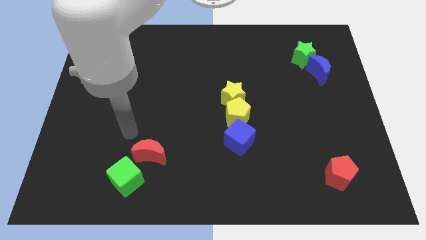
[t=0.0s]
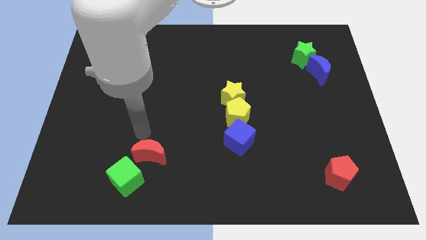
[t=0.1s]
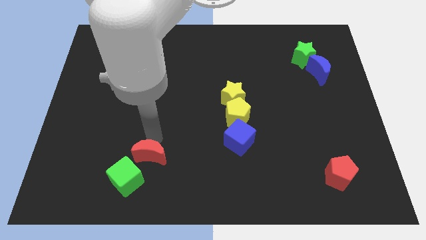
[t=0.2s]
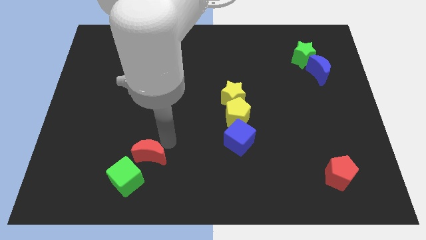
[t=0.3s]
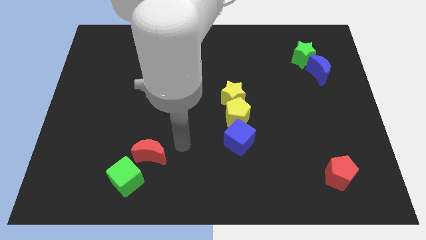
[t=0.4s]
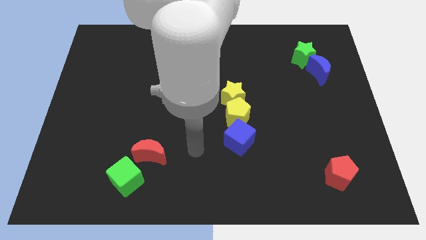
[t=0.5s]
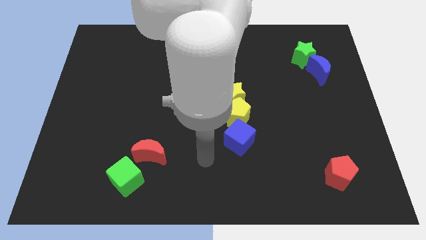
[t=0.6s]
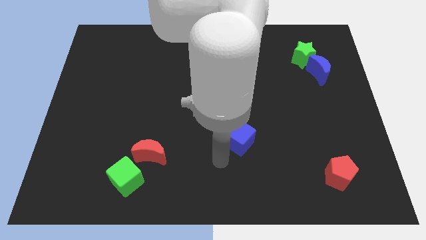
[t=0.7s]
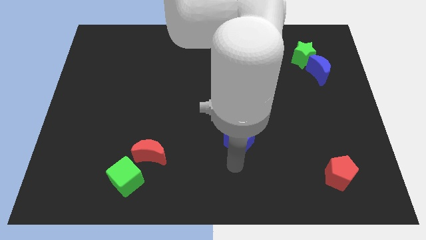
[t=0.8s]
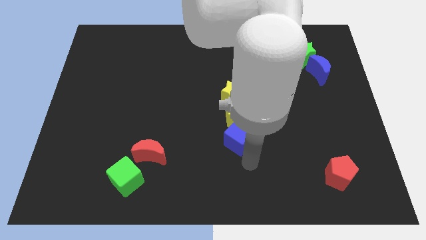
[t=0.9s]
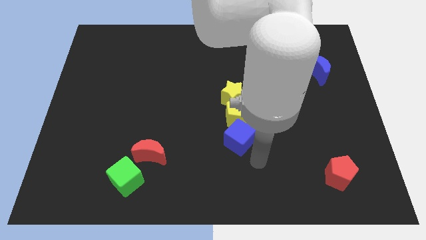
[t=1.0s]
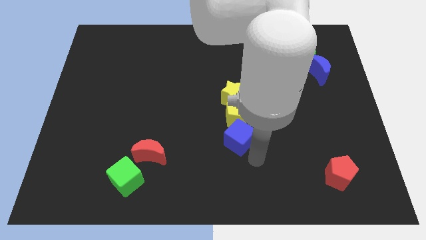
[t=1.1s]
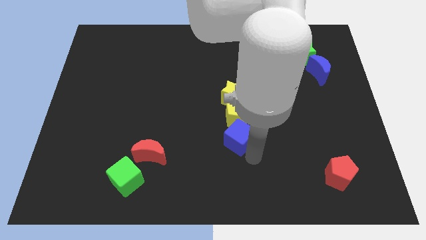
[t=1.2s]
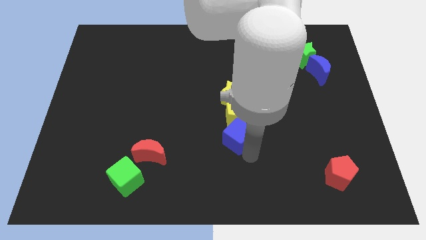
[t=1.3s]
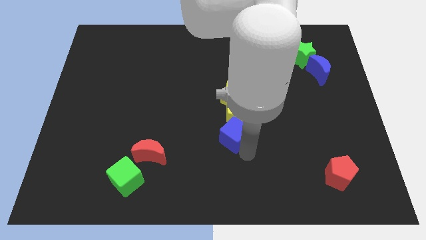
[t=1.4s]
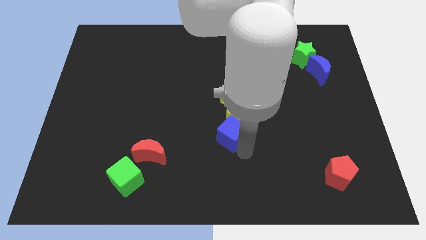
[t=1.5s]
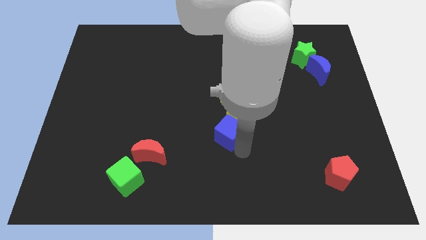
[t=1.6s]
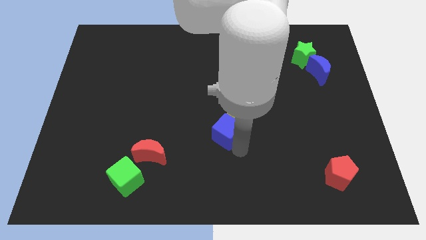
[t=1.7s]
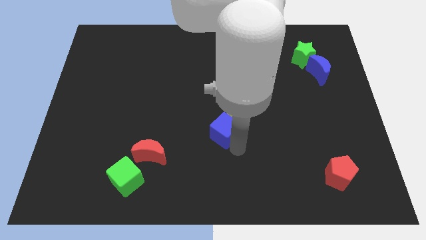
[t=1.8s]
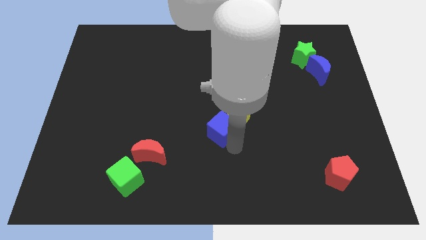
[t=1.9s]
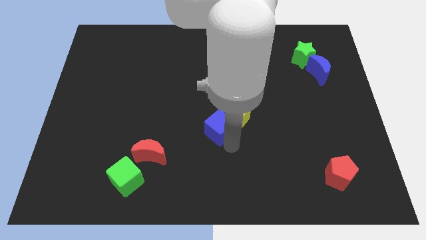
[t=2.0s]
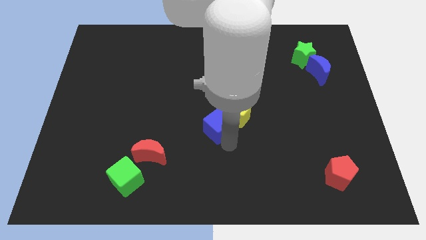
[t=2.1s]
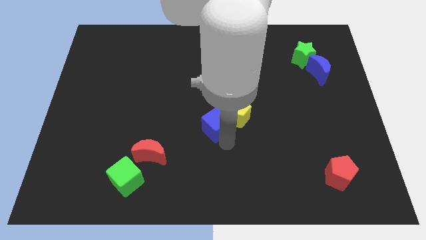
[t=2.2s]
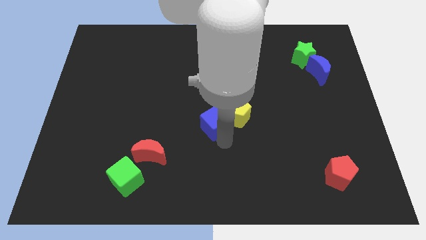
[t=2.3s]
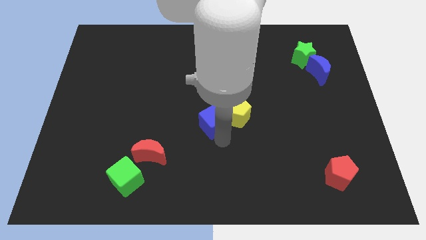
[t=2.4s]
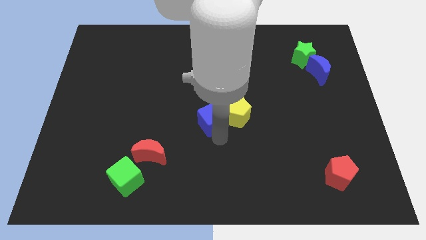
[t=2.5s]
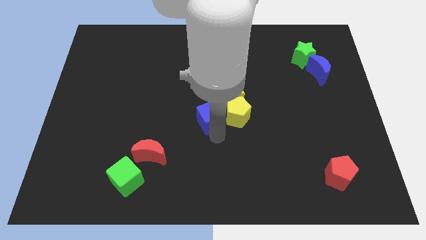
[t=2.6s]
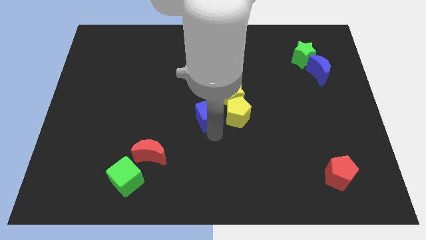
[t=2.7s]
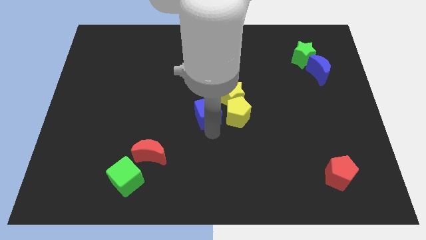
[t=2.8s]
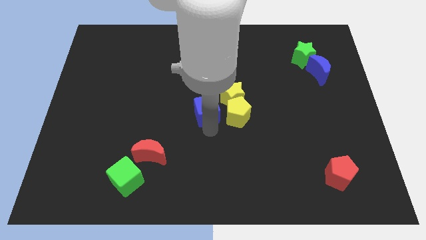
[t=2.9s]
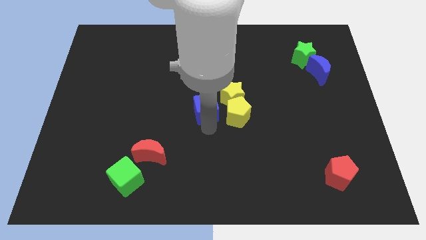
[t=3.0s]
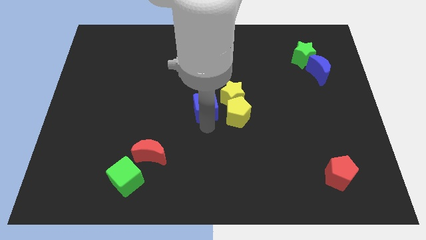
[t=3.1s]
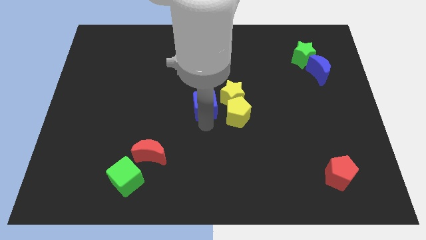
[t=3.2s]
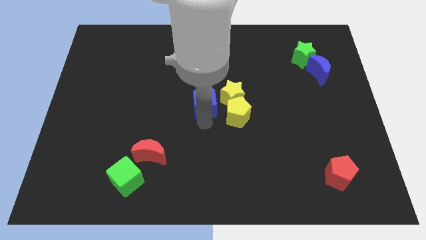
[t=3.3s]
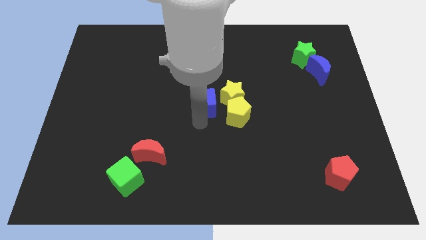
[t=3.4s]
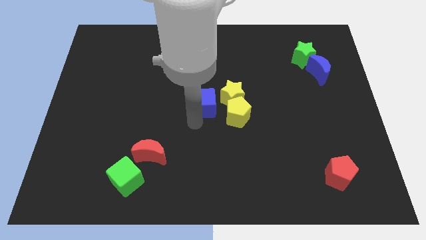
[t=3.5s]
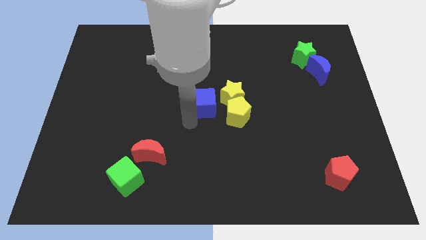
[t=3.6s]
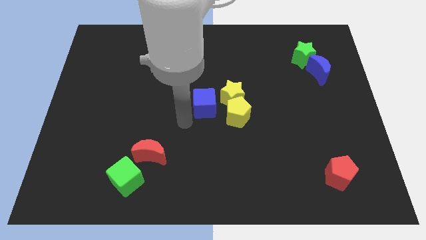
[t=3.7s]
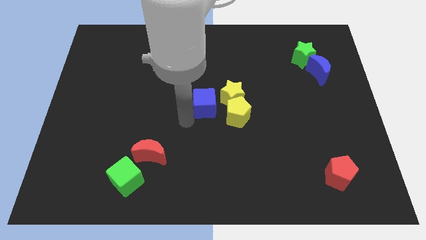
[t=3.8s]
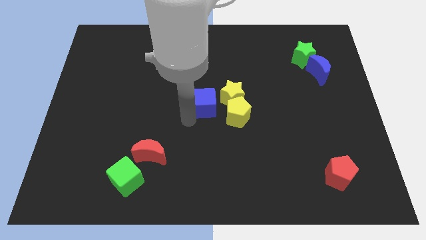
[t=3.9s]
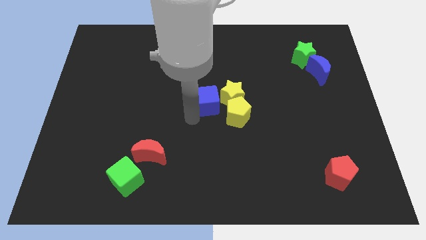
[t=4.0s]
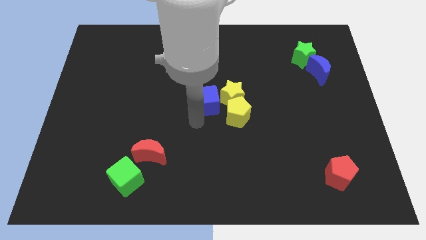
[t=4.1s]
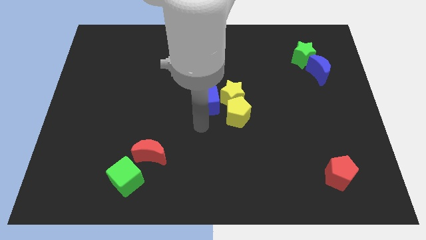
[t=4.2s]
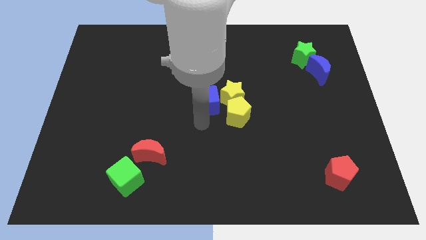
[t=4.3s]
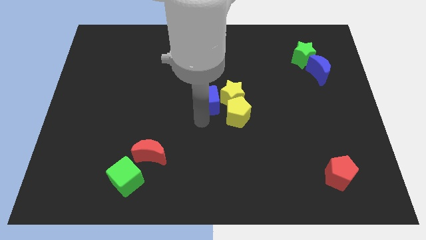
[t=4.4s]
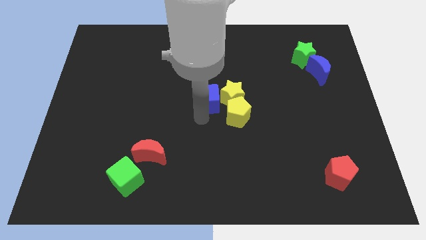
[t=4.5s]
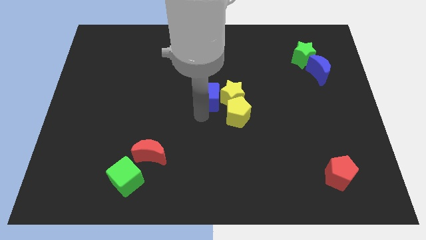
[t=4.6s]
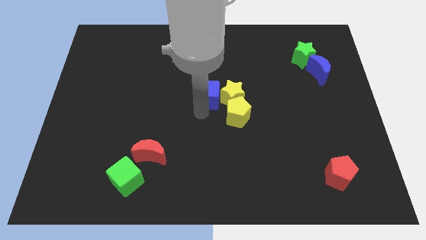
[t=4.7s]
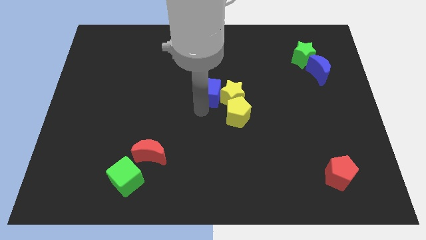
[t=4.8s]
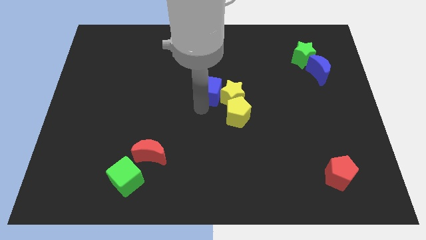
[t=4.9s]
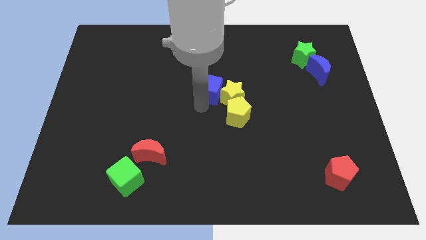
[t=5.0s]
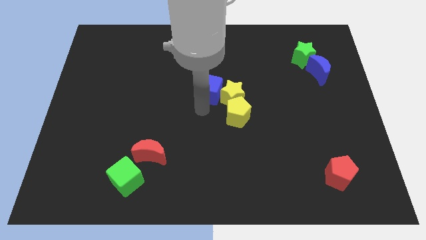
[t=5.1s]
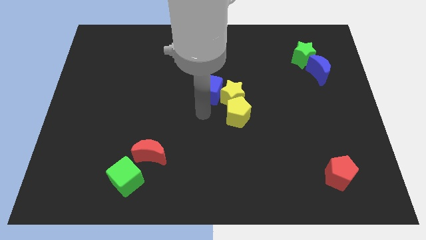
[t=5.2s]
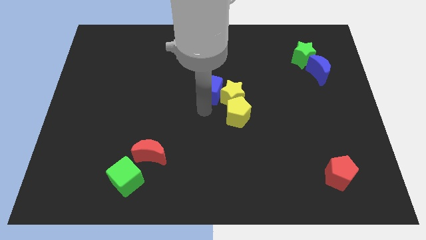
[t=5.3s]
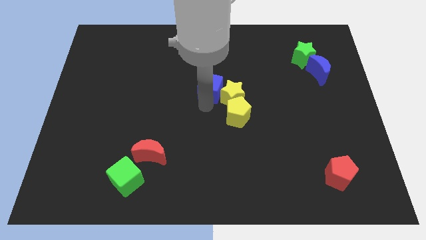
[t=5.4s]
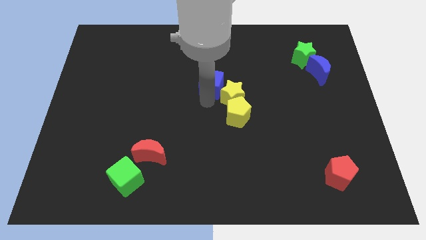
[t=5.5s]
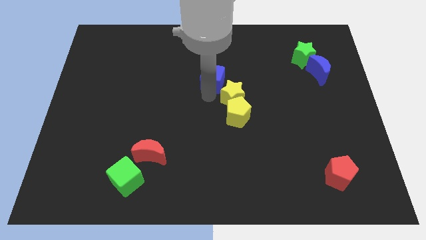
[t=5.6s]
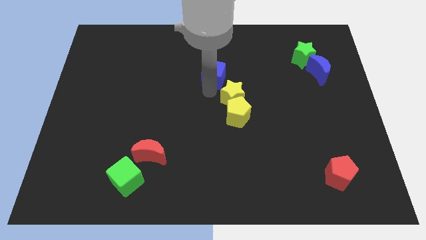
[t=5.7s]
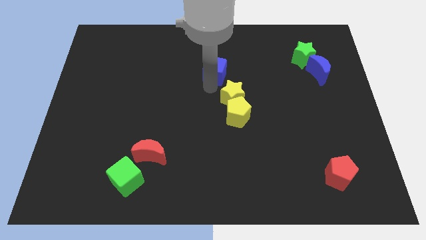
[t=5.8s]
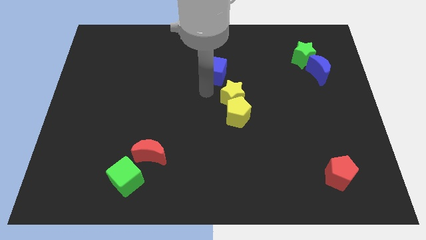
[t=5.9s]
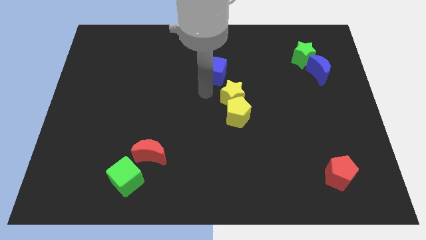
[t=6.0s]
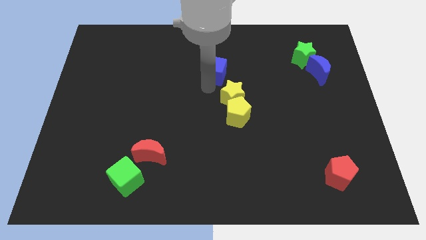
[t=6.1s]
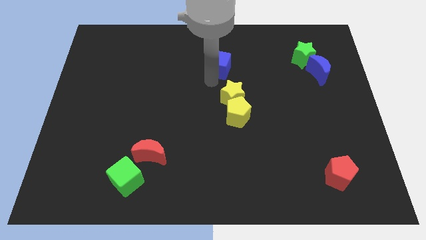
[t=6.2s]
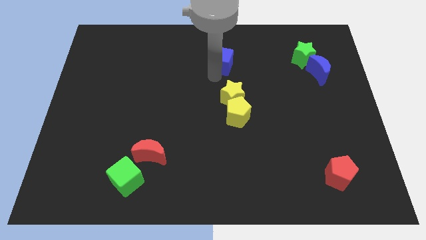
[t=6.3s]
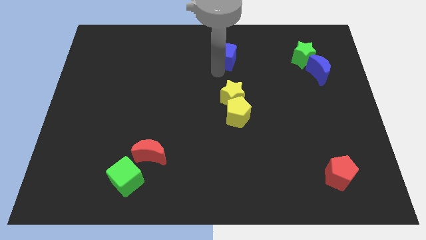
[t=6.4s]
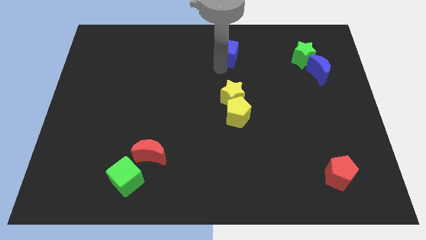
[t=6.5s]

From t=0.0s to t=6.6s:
push the blue cube to the top side
